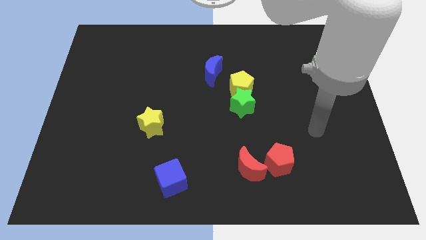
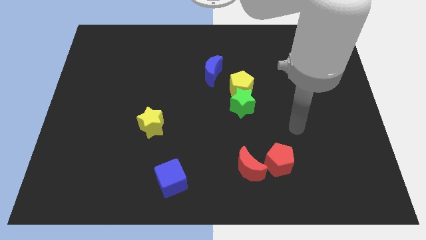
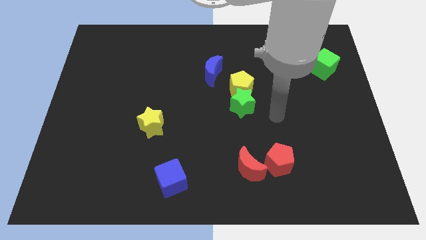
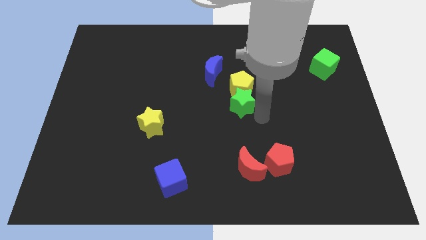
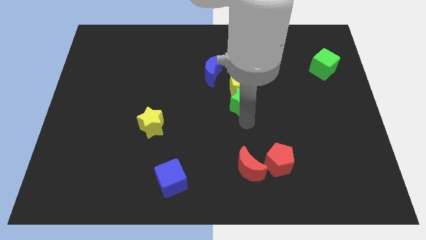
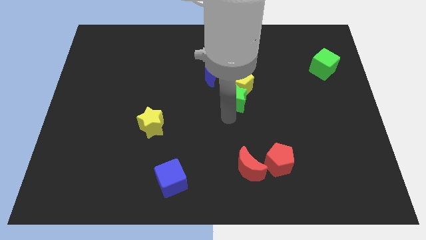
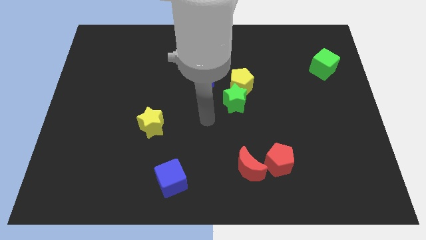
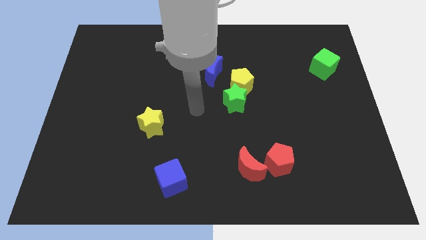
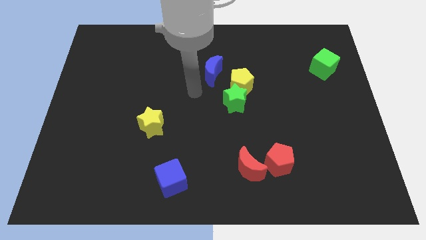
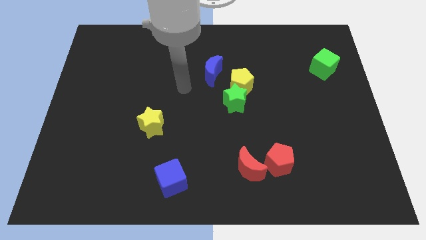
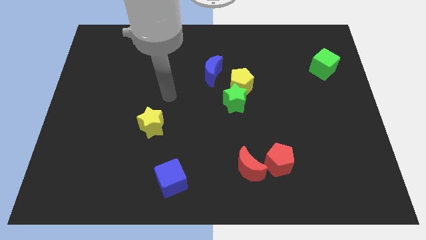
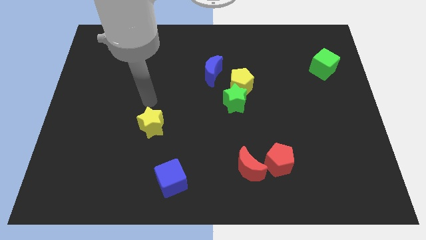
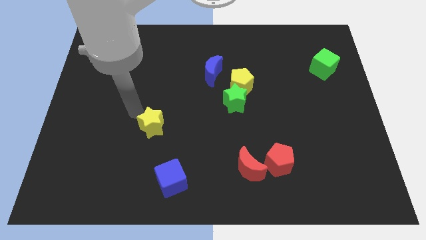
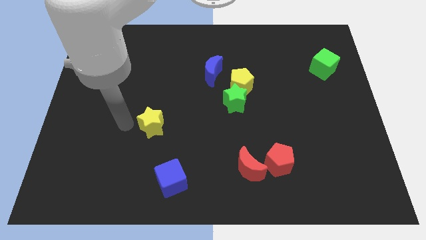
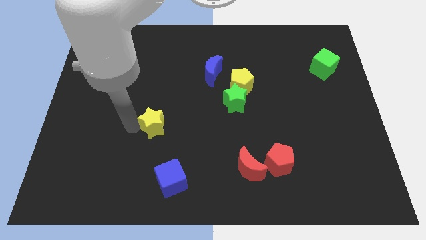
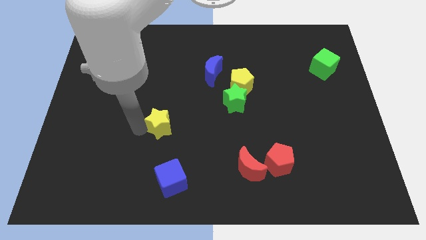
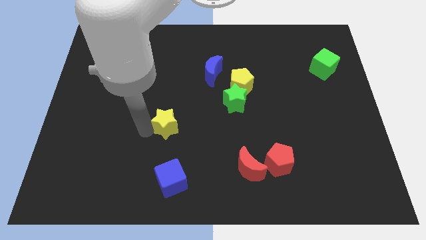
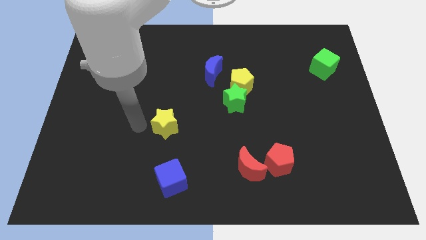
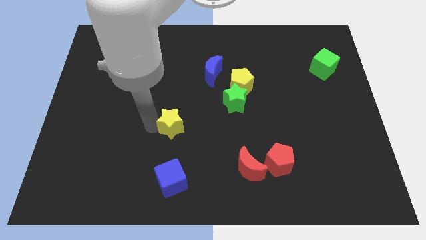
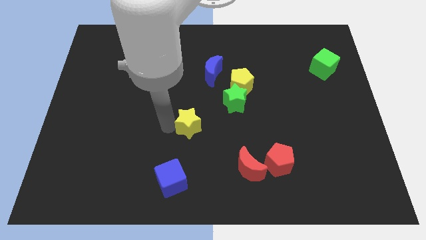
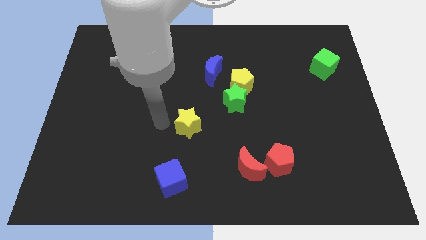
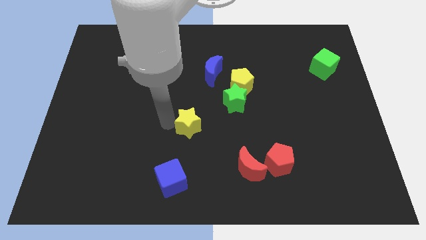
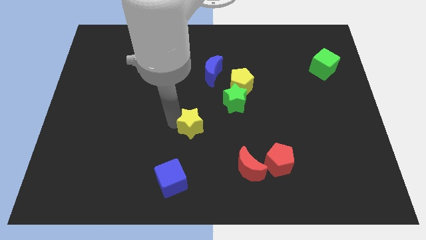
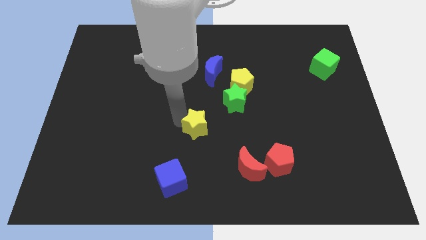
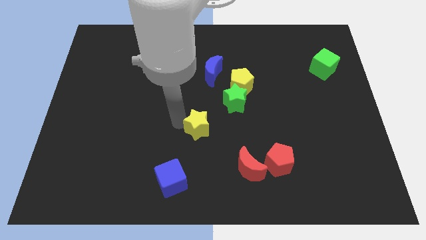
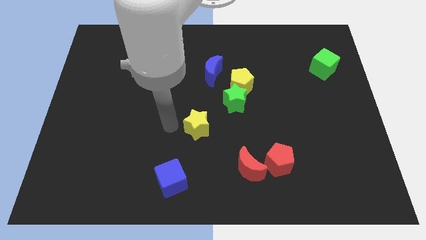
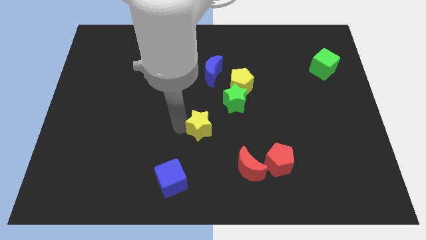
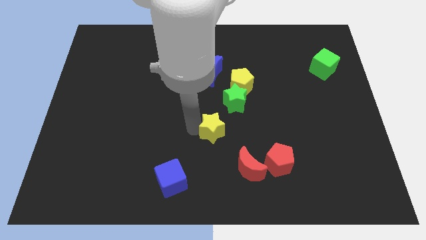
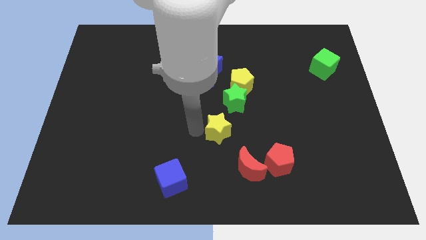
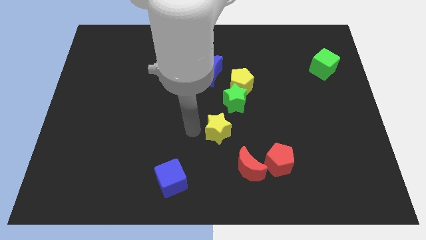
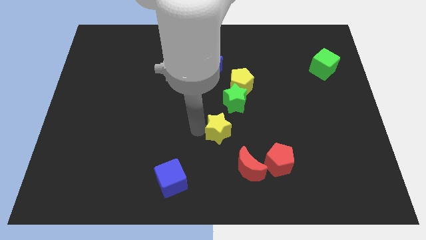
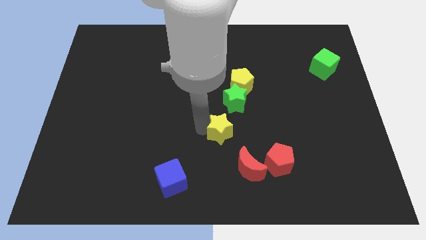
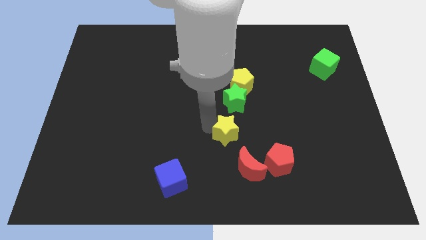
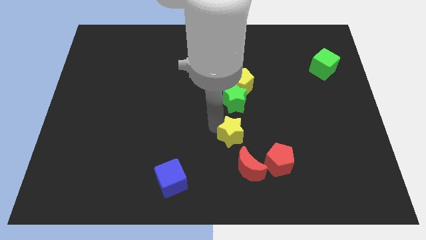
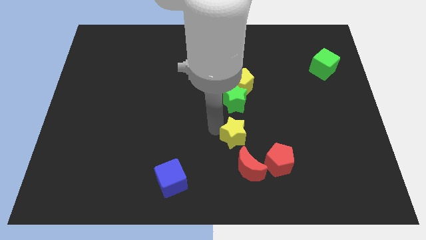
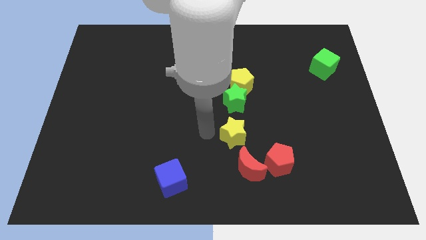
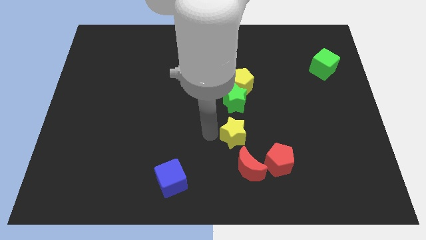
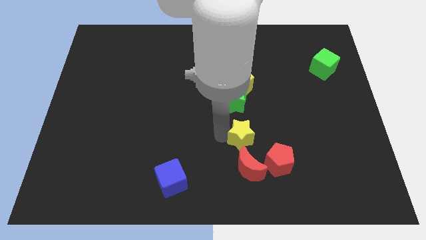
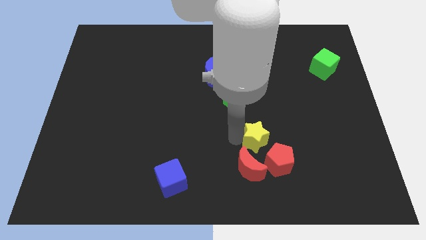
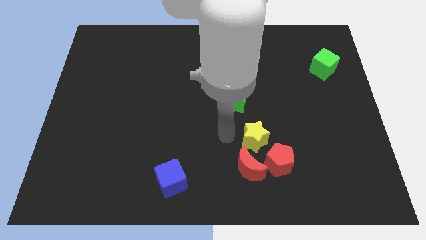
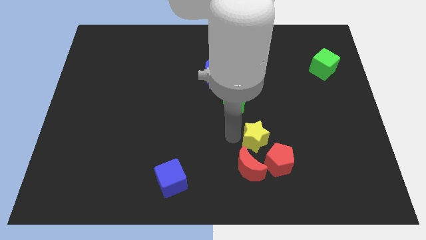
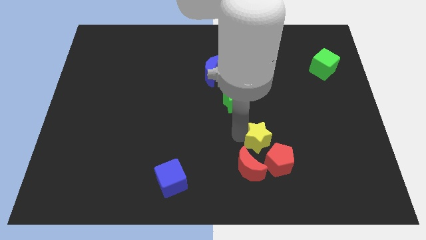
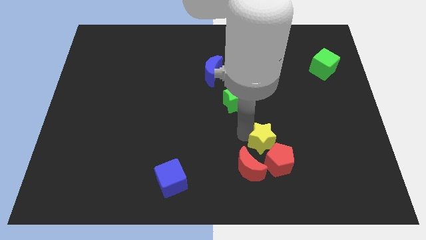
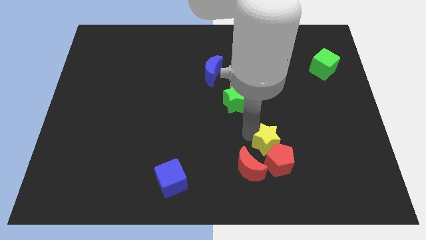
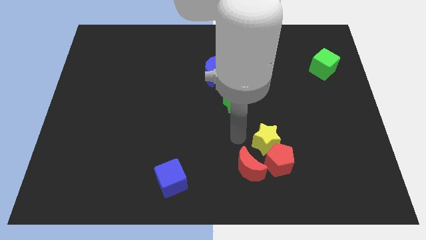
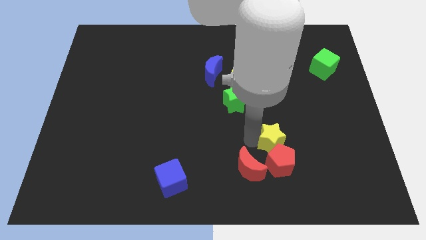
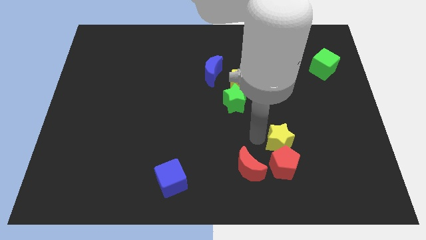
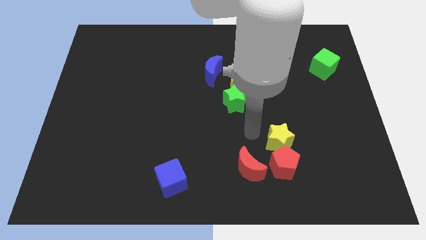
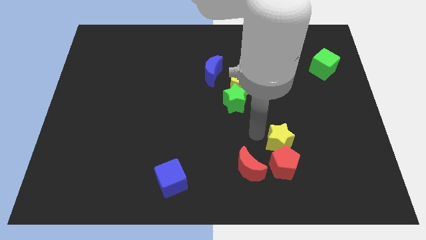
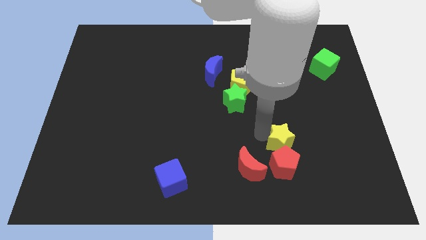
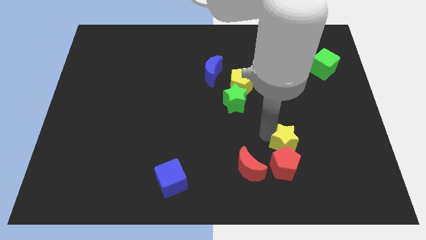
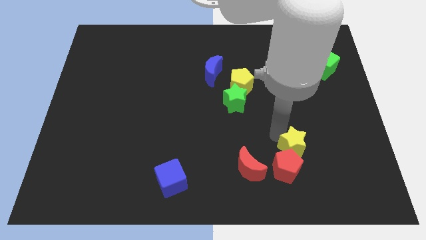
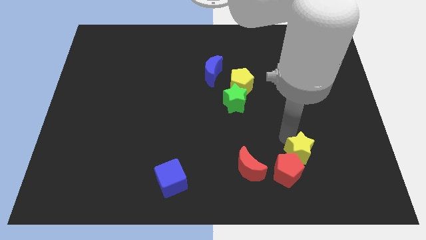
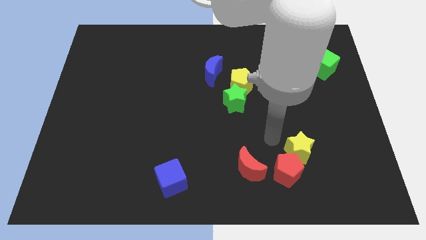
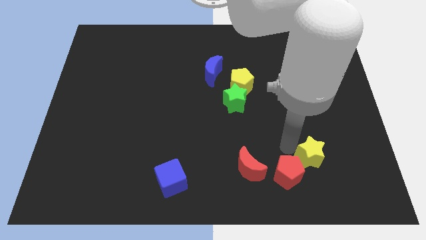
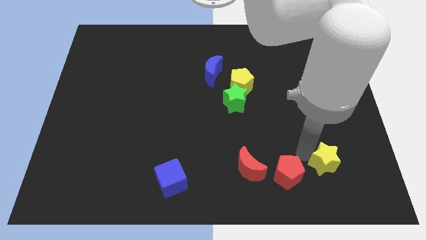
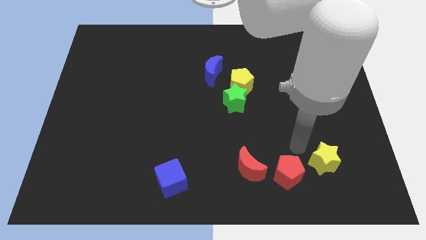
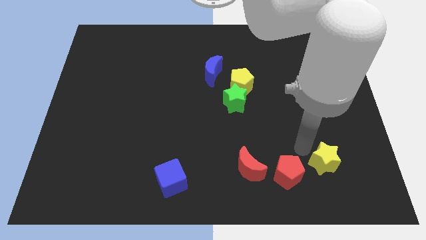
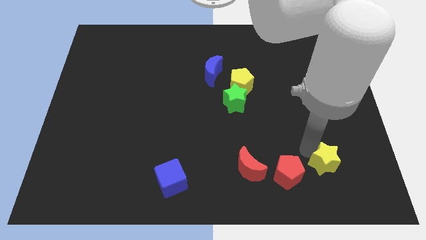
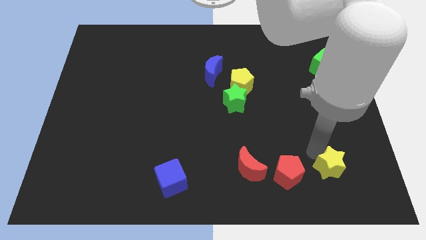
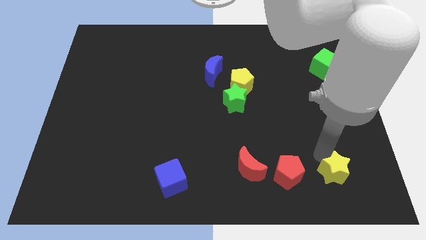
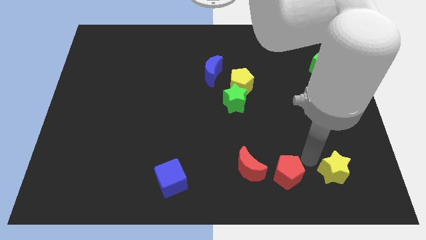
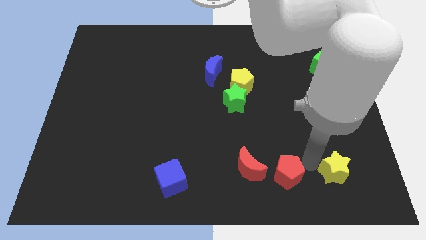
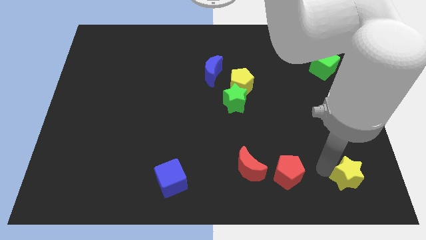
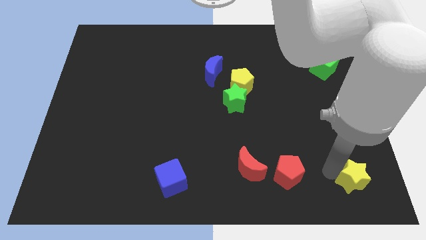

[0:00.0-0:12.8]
move the yellow star to the bottom right
